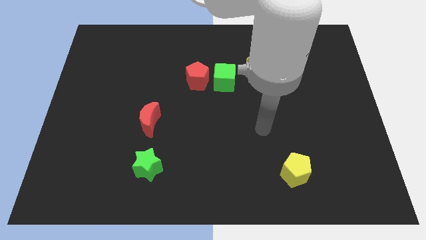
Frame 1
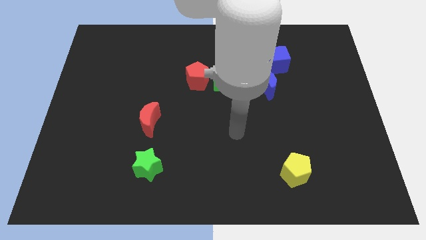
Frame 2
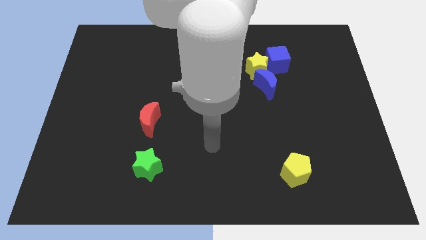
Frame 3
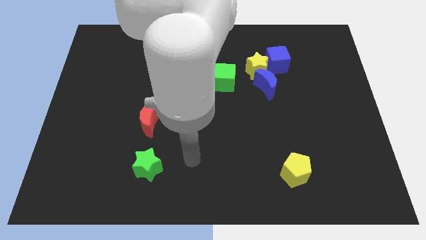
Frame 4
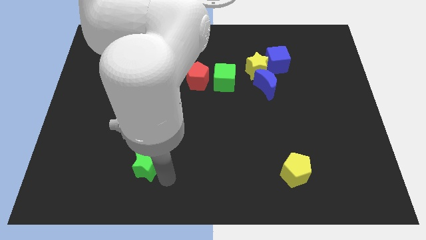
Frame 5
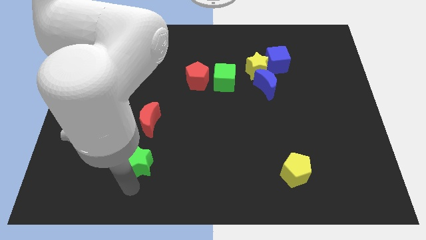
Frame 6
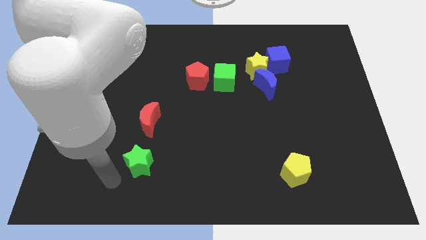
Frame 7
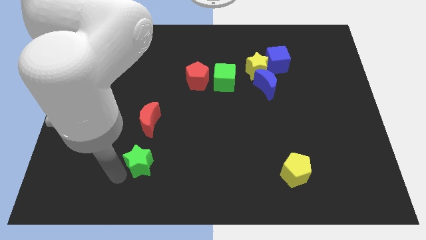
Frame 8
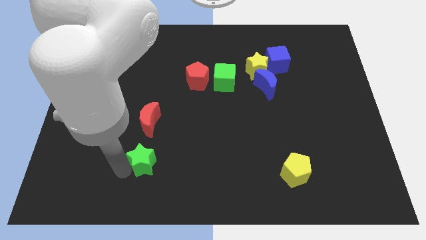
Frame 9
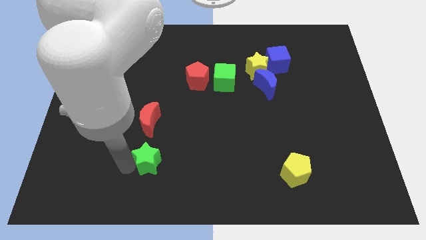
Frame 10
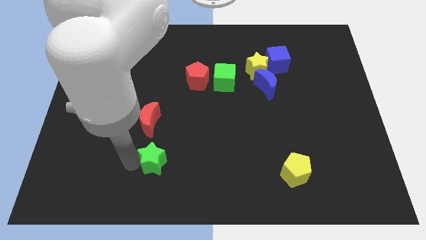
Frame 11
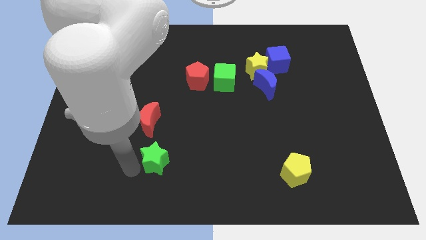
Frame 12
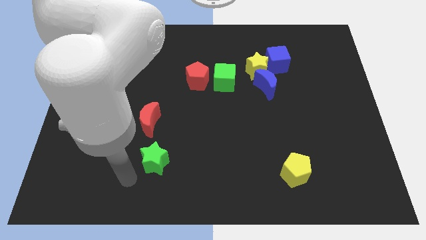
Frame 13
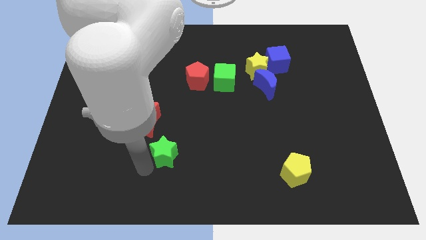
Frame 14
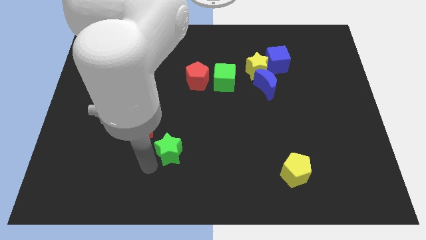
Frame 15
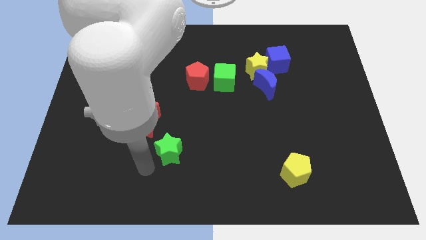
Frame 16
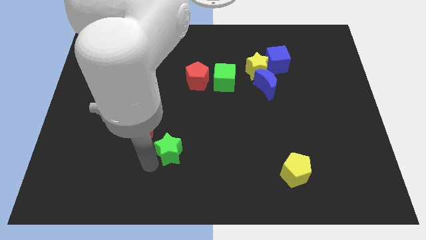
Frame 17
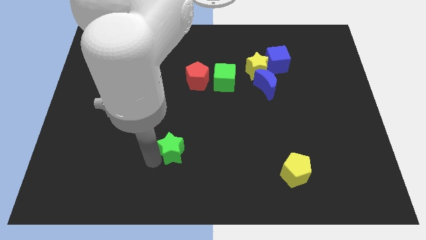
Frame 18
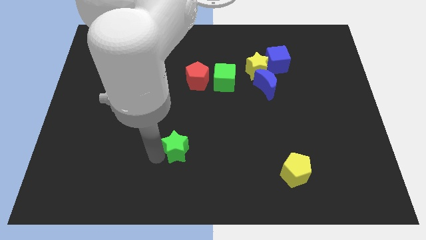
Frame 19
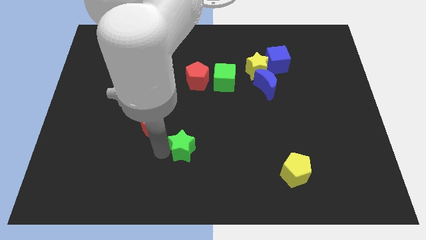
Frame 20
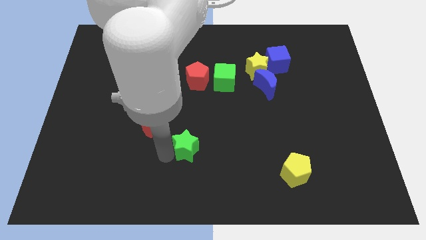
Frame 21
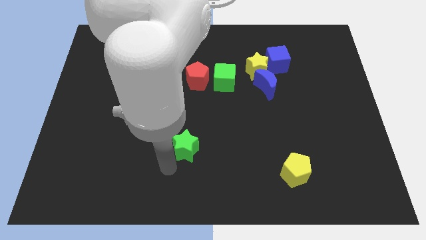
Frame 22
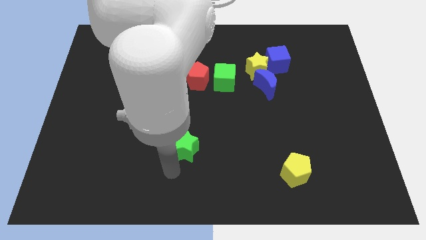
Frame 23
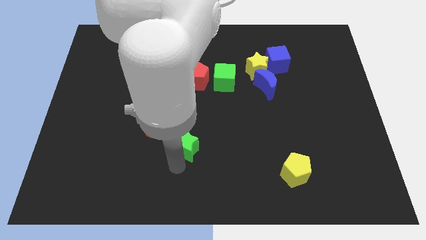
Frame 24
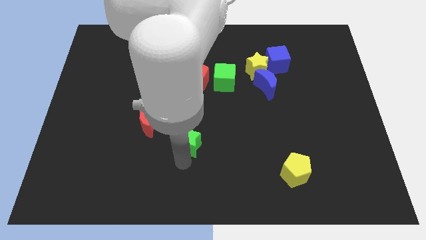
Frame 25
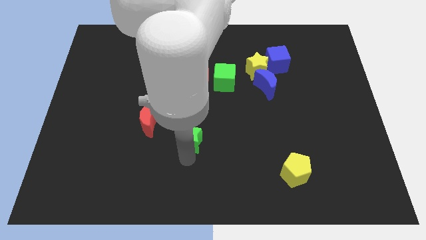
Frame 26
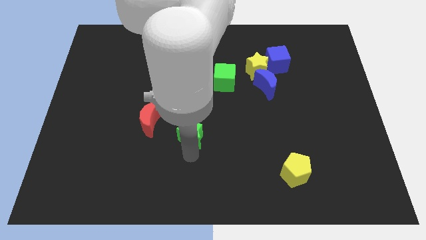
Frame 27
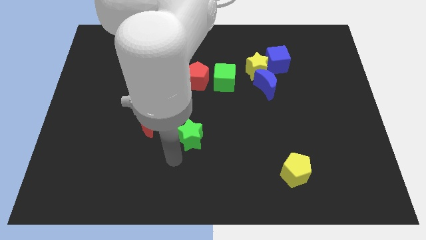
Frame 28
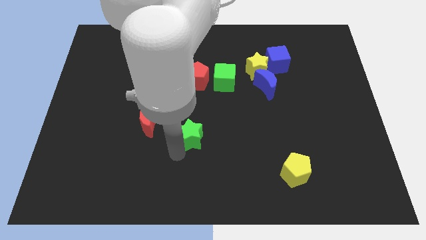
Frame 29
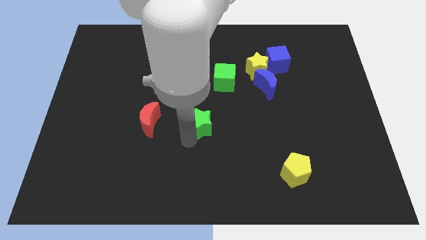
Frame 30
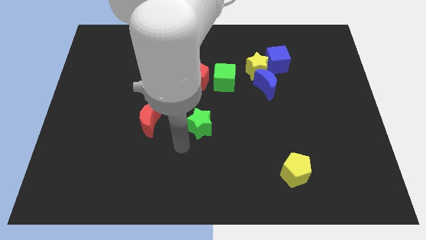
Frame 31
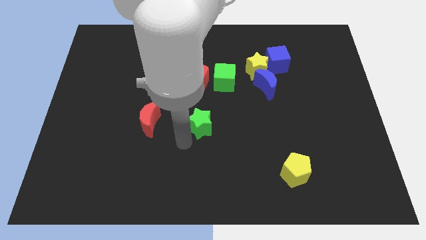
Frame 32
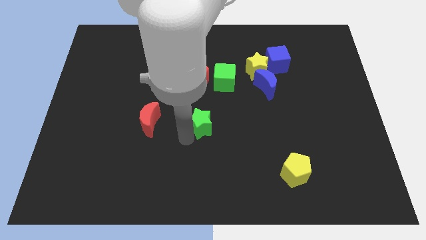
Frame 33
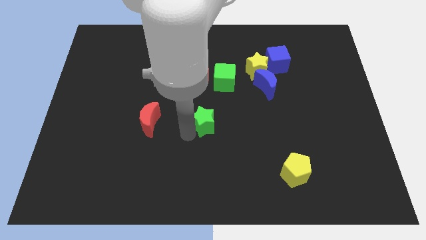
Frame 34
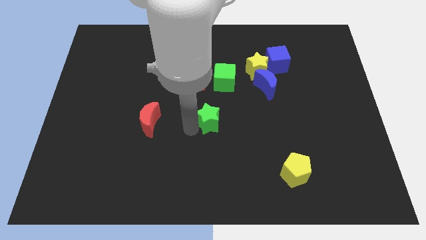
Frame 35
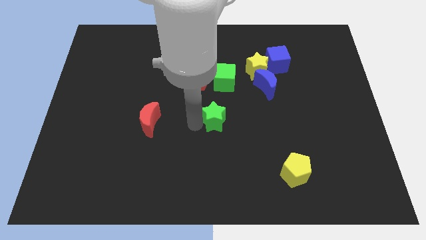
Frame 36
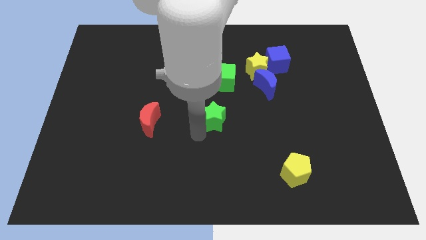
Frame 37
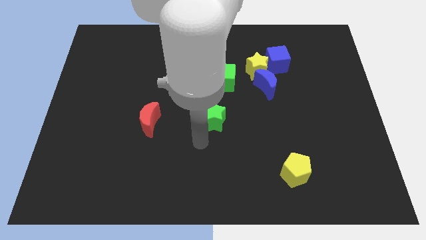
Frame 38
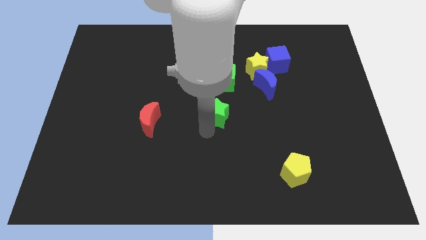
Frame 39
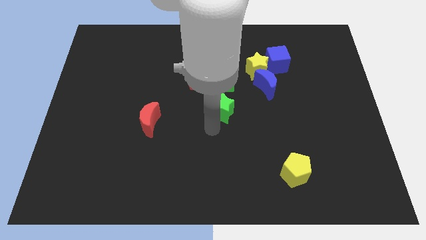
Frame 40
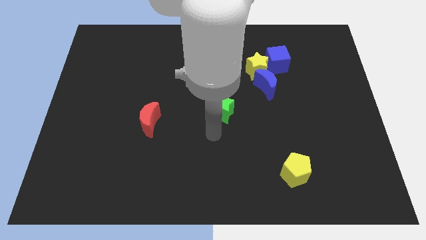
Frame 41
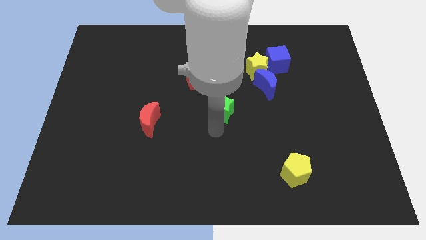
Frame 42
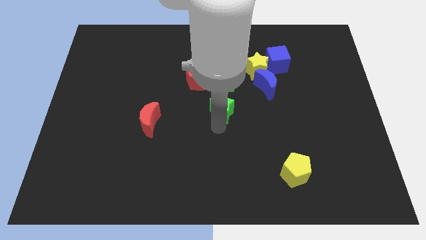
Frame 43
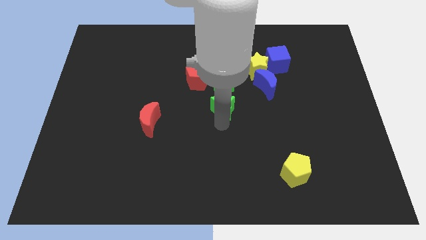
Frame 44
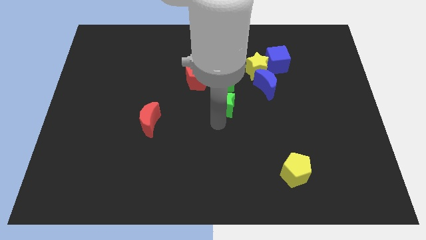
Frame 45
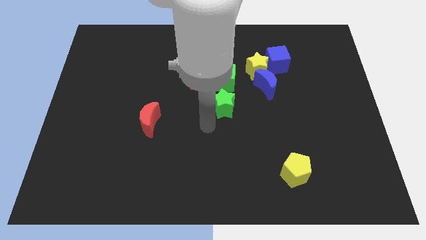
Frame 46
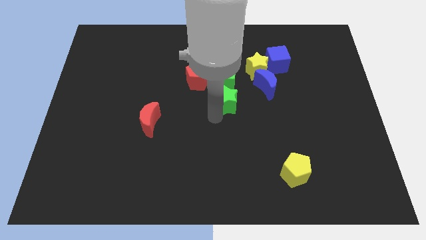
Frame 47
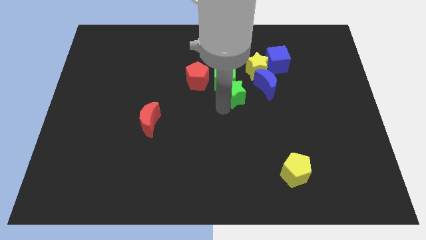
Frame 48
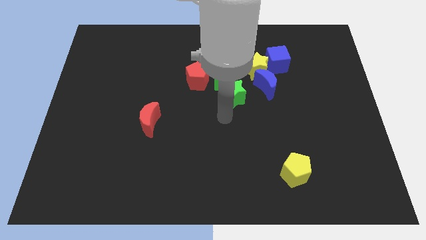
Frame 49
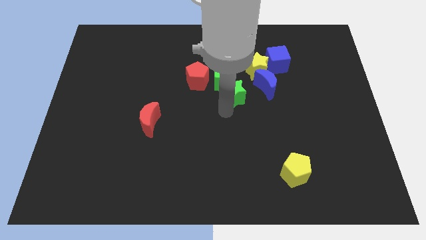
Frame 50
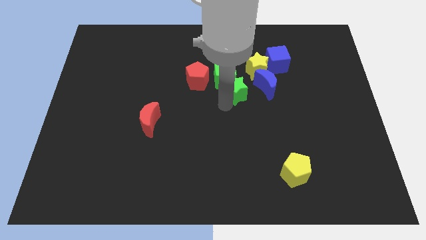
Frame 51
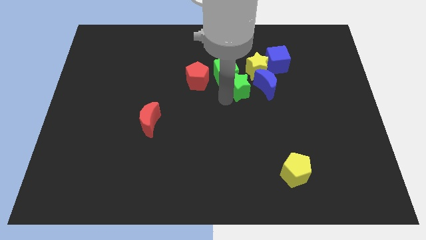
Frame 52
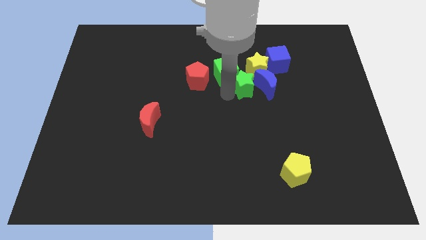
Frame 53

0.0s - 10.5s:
slide the green star diagonally up and to the left of the blue moon

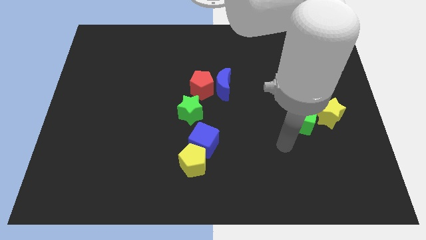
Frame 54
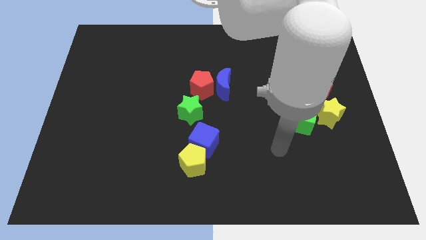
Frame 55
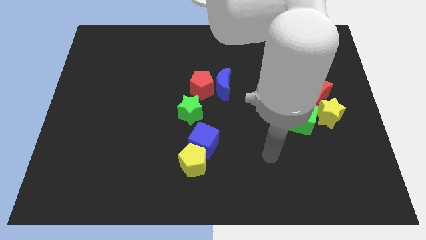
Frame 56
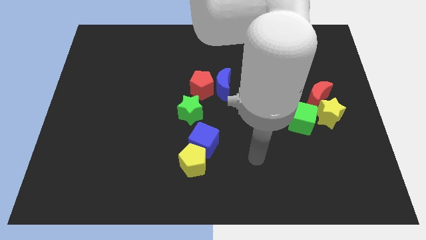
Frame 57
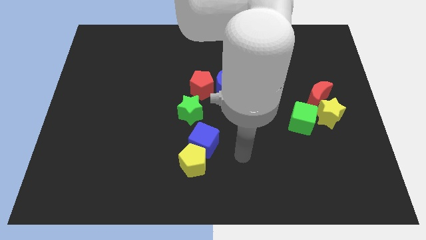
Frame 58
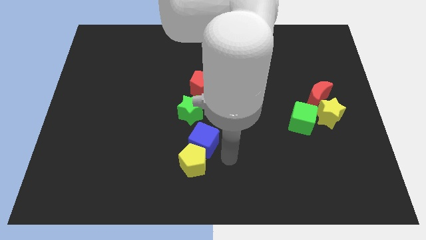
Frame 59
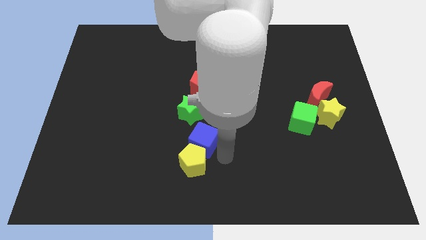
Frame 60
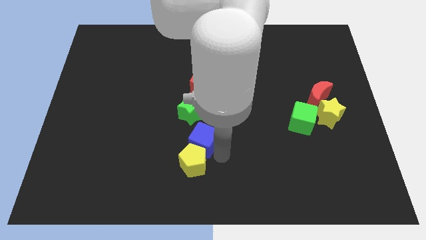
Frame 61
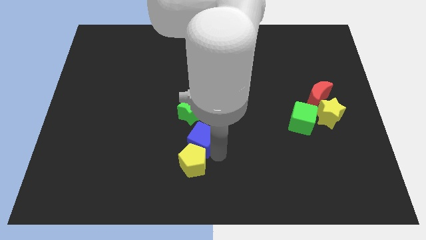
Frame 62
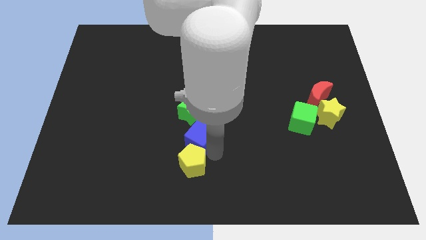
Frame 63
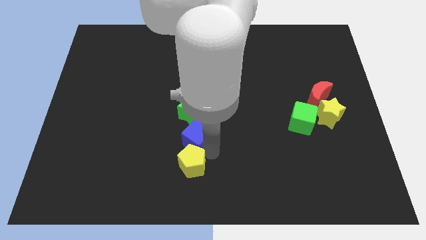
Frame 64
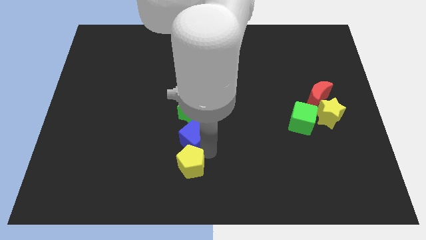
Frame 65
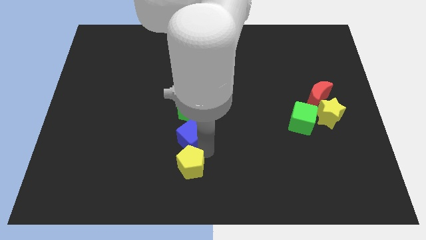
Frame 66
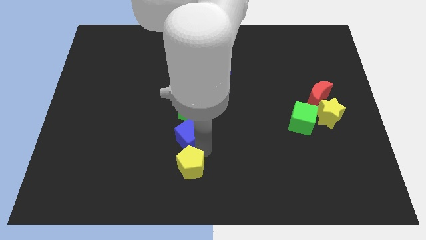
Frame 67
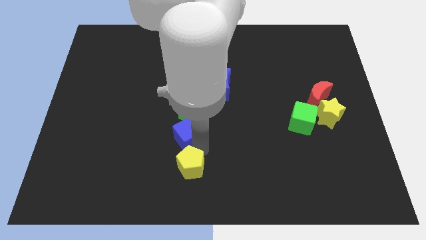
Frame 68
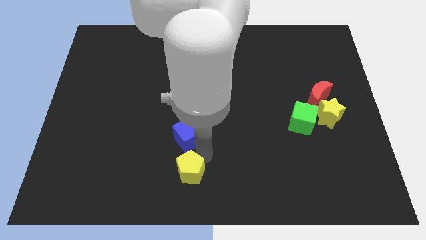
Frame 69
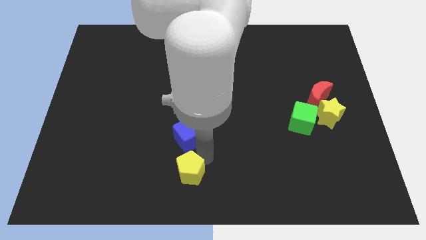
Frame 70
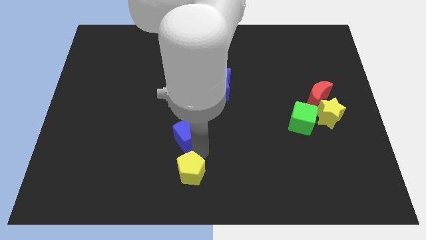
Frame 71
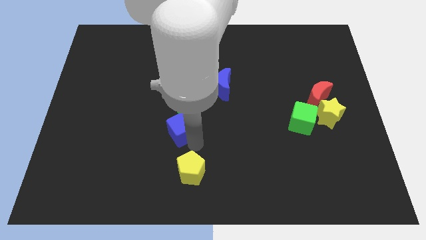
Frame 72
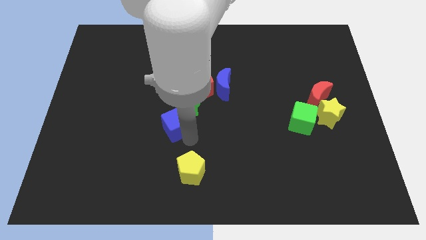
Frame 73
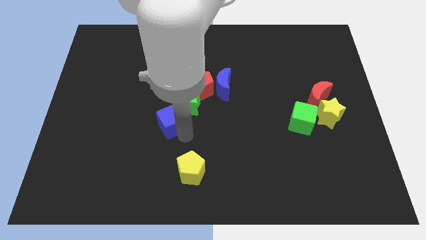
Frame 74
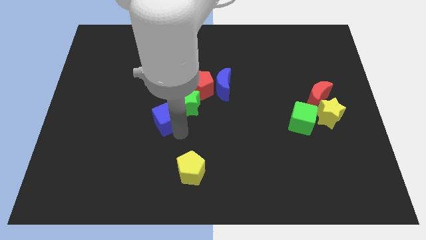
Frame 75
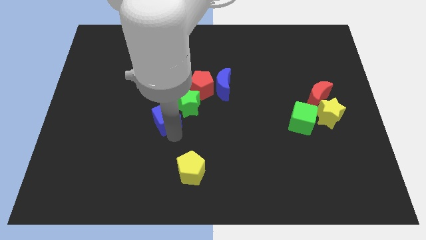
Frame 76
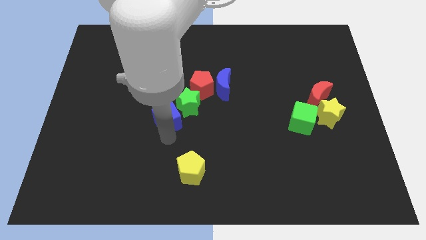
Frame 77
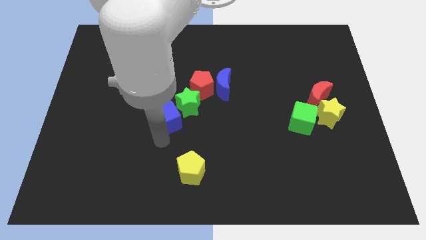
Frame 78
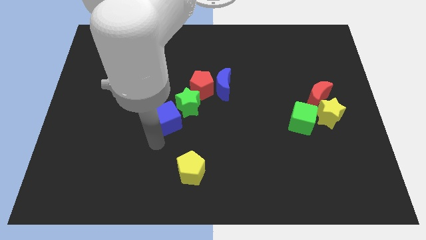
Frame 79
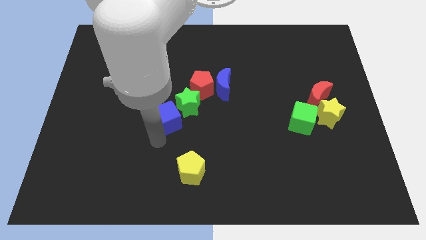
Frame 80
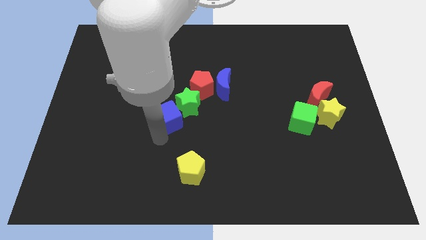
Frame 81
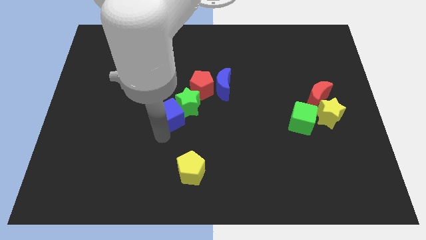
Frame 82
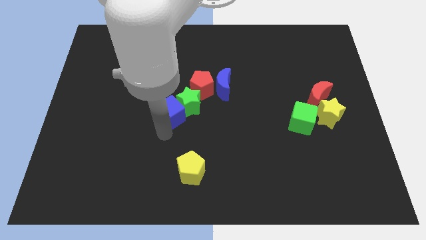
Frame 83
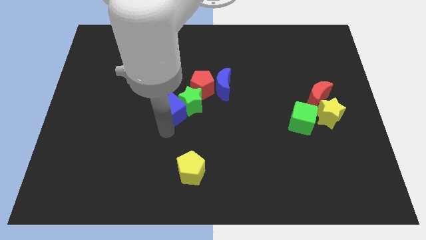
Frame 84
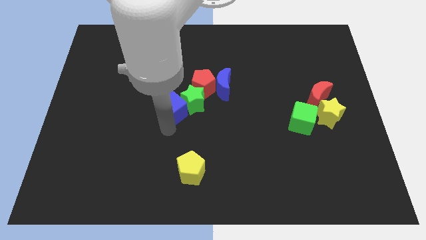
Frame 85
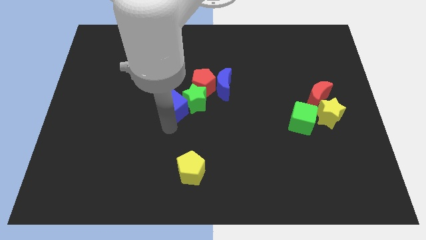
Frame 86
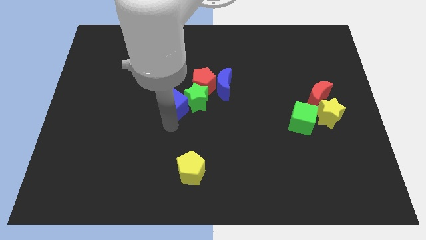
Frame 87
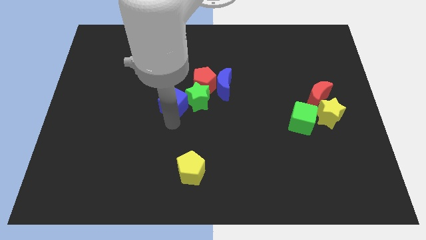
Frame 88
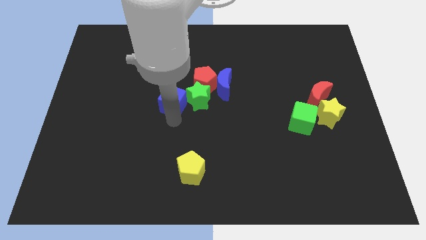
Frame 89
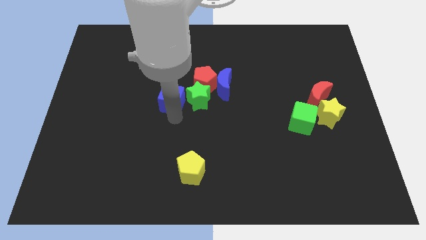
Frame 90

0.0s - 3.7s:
push the blue cube to the left of the blue moon
